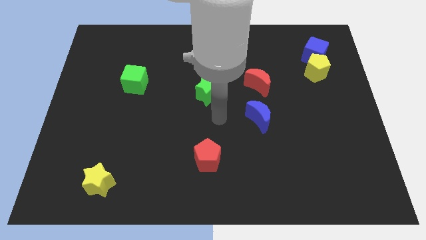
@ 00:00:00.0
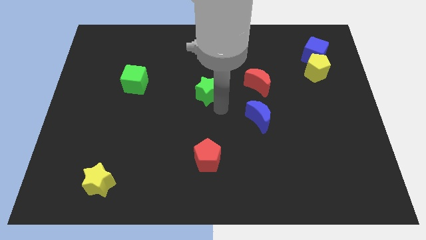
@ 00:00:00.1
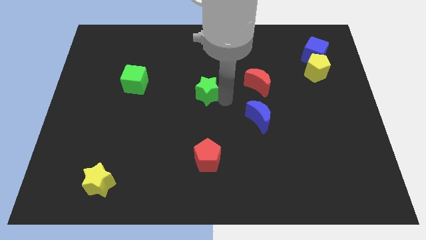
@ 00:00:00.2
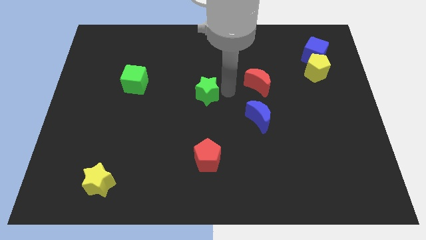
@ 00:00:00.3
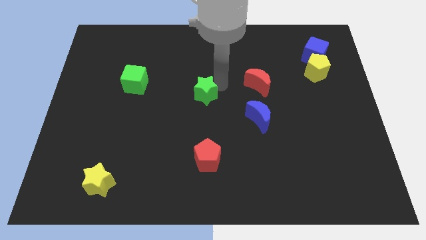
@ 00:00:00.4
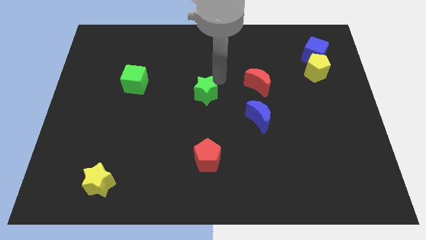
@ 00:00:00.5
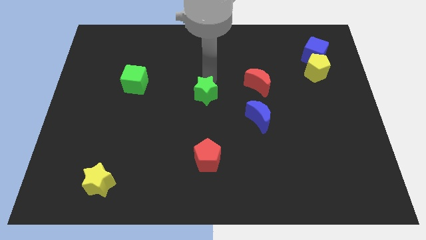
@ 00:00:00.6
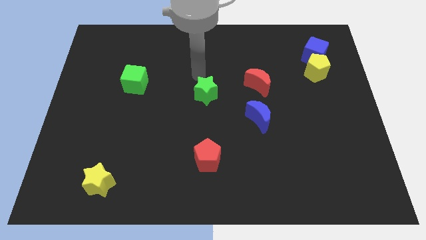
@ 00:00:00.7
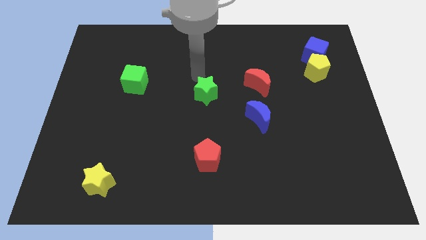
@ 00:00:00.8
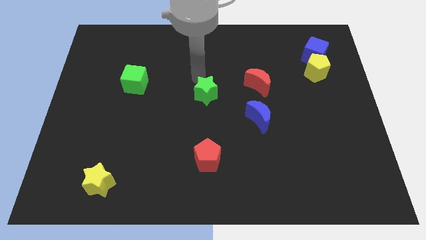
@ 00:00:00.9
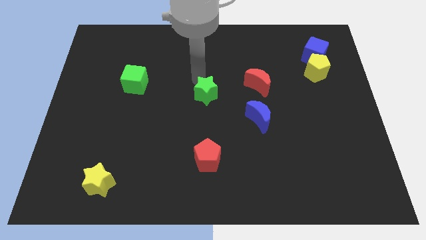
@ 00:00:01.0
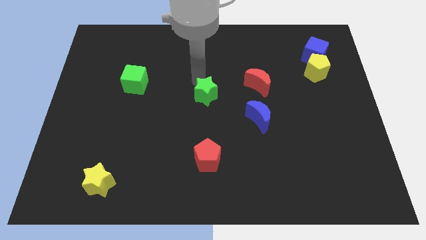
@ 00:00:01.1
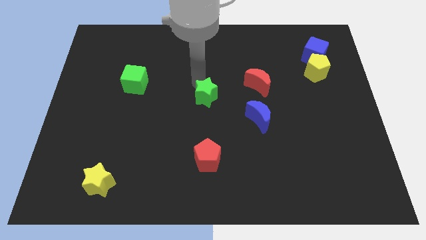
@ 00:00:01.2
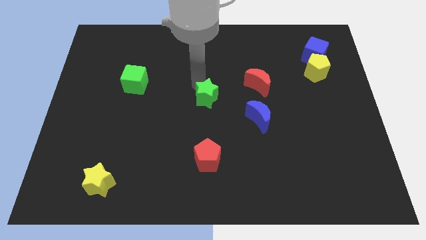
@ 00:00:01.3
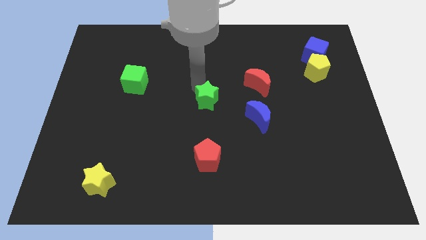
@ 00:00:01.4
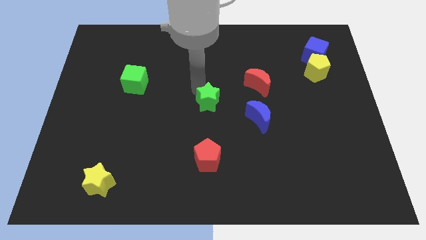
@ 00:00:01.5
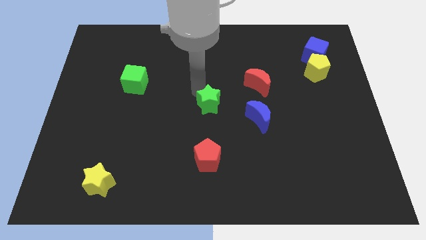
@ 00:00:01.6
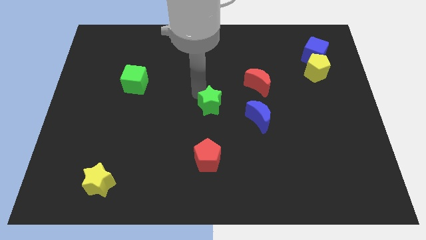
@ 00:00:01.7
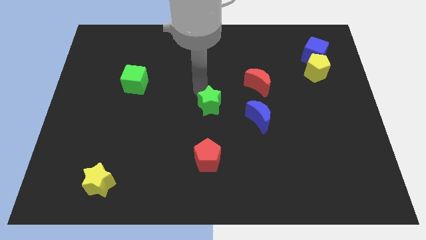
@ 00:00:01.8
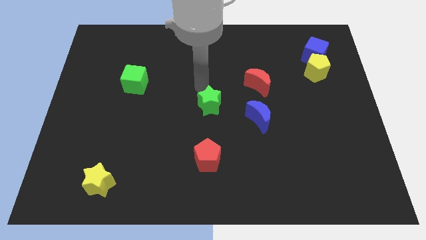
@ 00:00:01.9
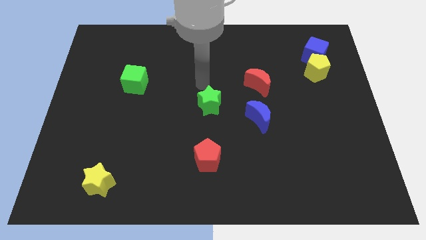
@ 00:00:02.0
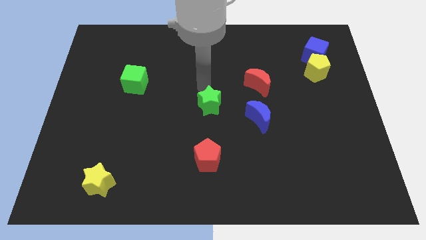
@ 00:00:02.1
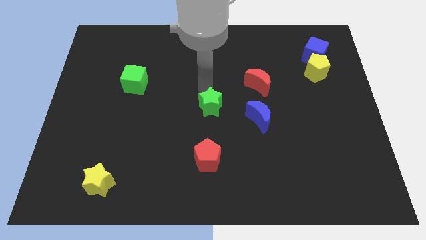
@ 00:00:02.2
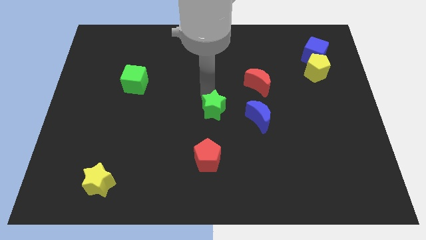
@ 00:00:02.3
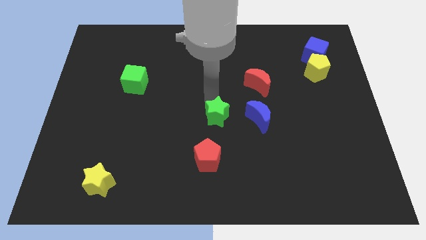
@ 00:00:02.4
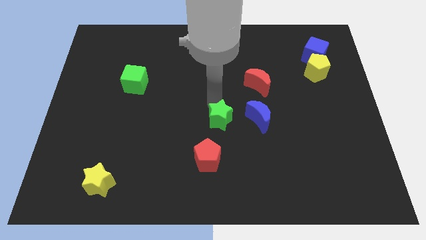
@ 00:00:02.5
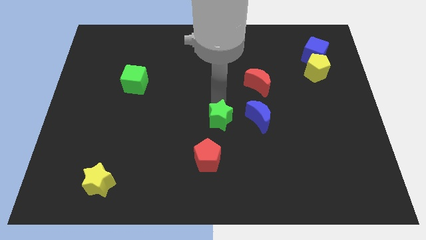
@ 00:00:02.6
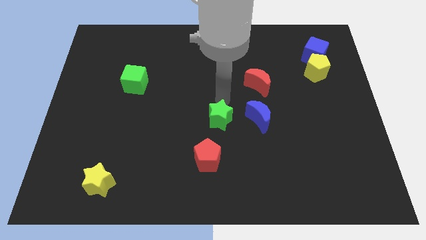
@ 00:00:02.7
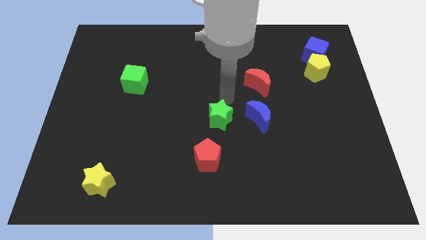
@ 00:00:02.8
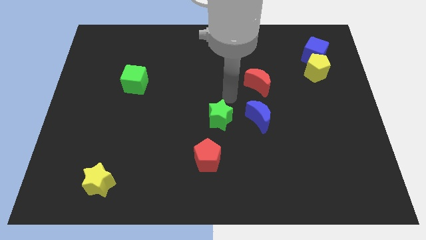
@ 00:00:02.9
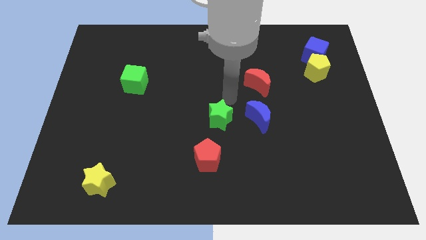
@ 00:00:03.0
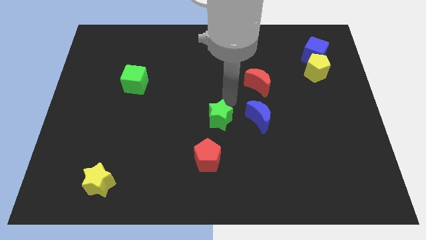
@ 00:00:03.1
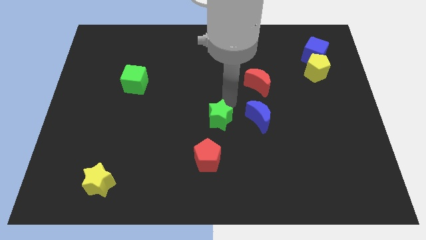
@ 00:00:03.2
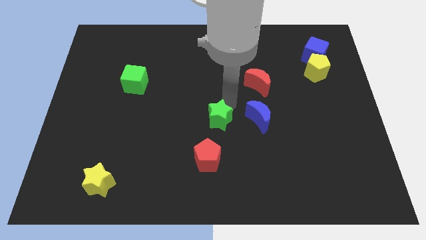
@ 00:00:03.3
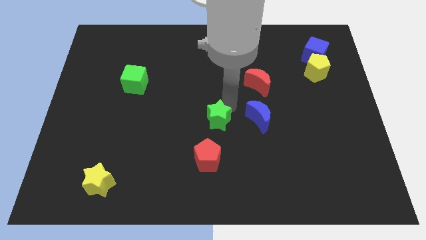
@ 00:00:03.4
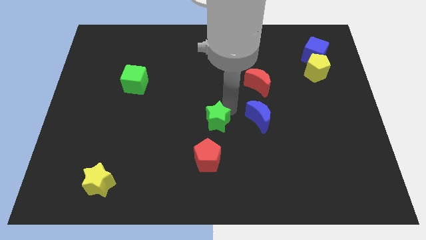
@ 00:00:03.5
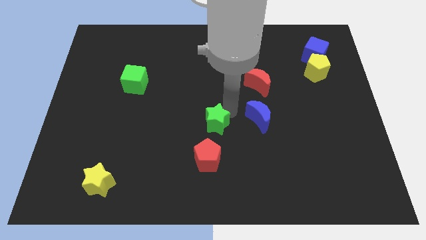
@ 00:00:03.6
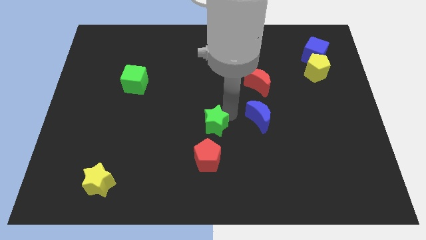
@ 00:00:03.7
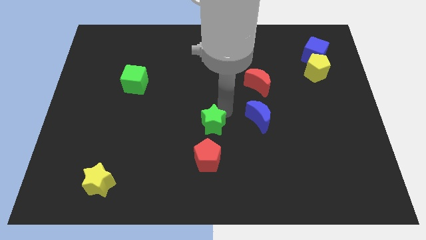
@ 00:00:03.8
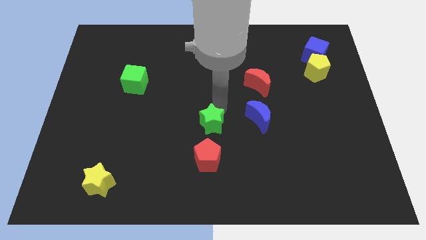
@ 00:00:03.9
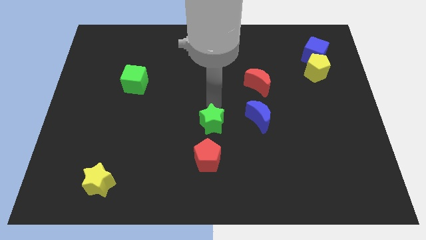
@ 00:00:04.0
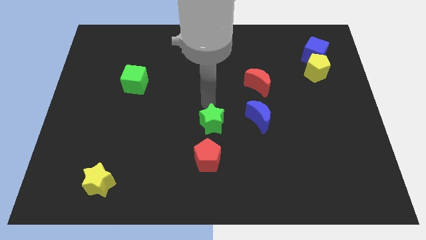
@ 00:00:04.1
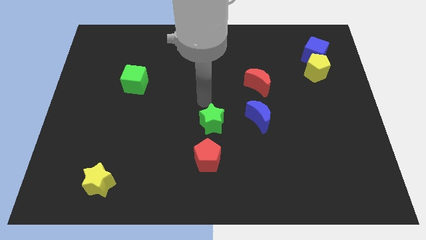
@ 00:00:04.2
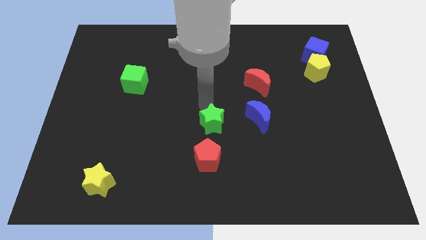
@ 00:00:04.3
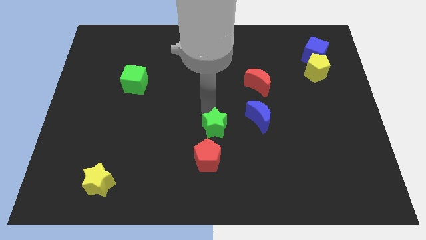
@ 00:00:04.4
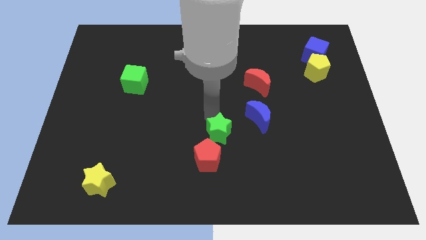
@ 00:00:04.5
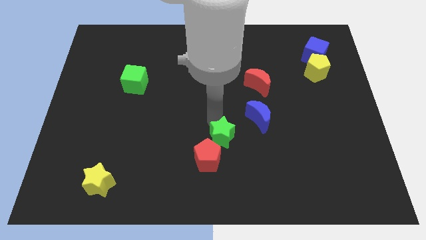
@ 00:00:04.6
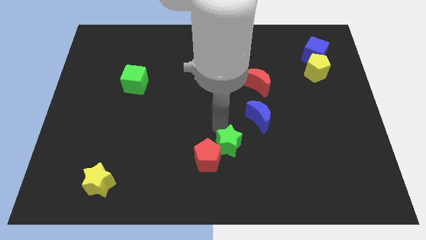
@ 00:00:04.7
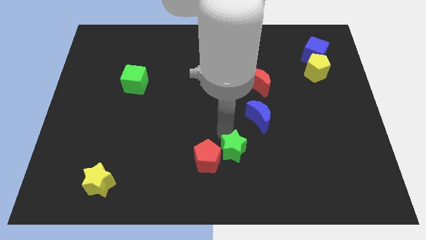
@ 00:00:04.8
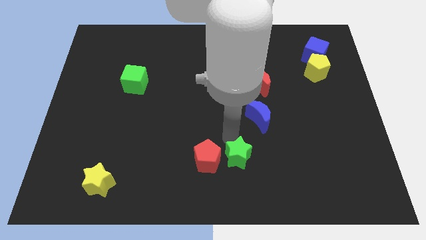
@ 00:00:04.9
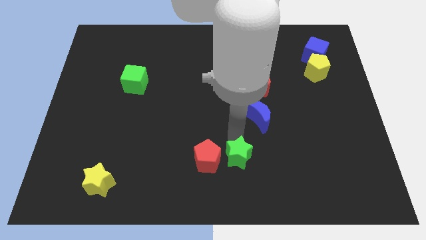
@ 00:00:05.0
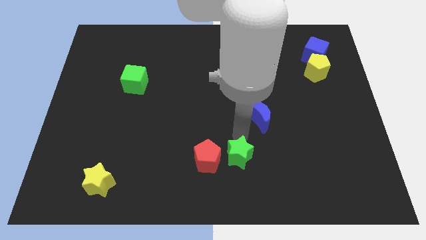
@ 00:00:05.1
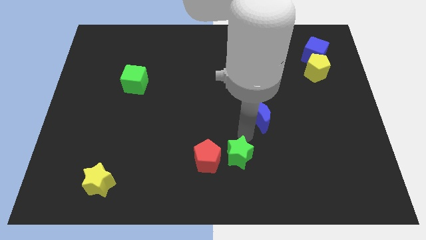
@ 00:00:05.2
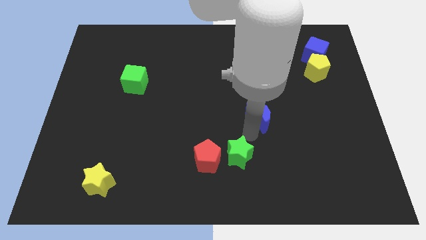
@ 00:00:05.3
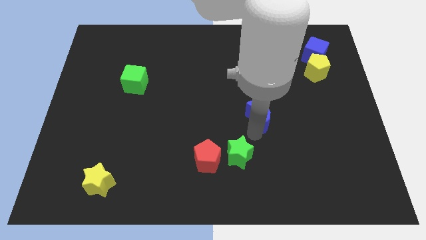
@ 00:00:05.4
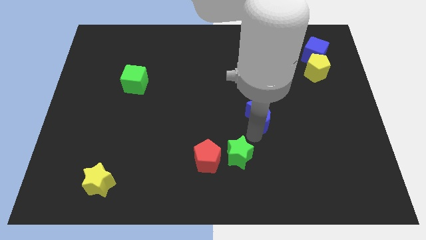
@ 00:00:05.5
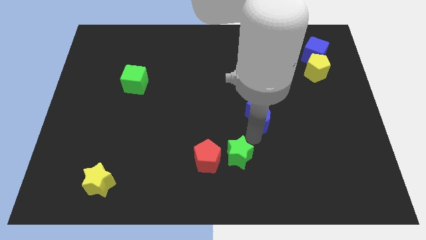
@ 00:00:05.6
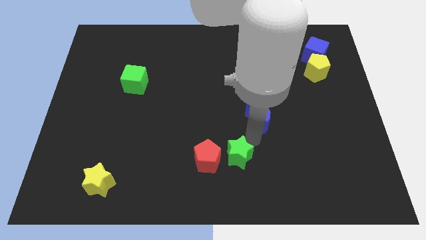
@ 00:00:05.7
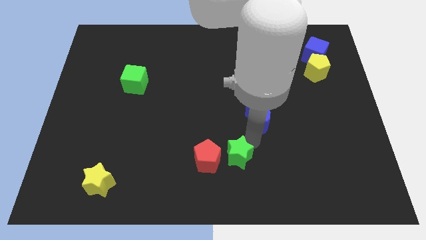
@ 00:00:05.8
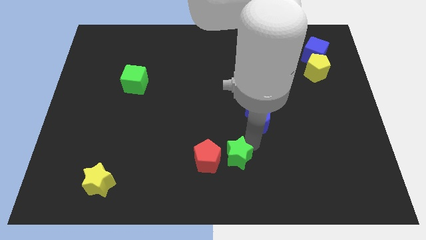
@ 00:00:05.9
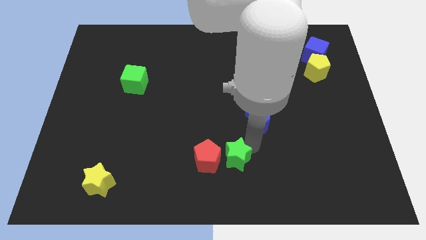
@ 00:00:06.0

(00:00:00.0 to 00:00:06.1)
slide the green star to the bottom side

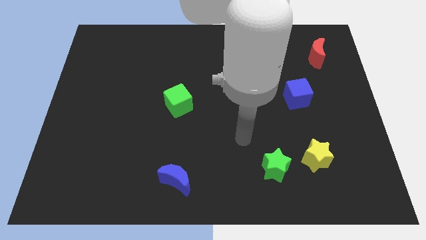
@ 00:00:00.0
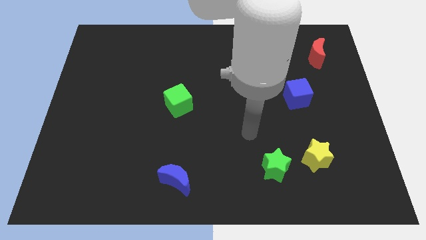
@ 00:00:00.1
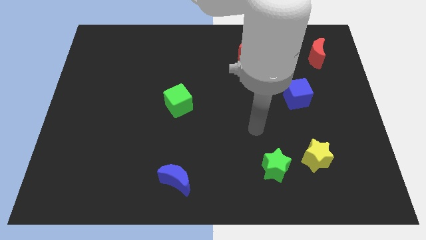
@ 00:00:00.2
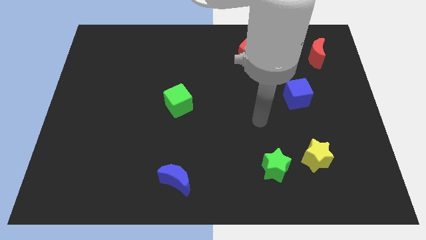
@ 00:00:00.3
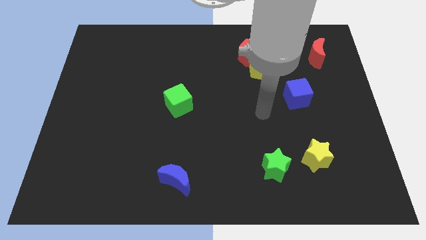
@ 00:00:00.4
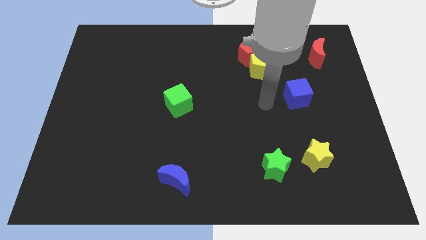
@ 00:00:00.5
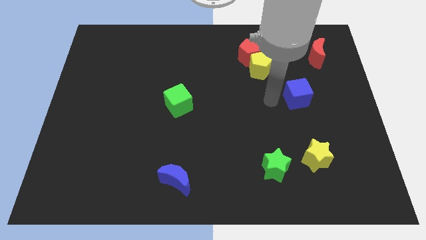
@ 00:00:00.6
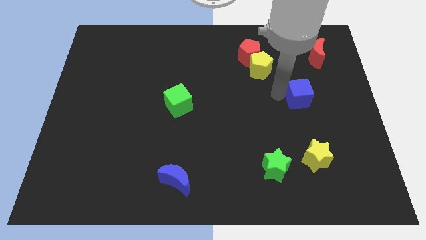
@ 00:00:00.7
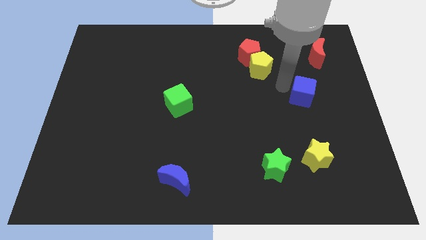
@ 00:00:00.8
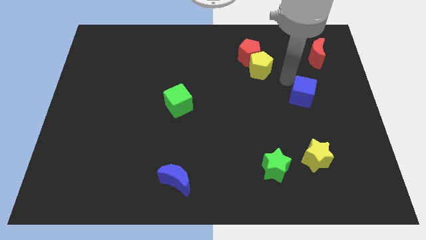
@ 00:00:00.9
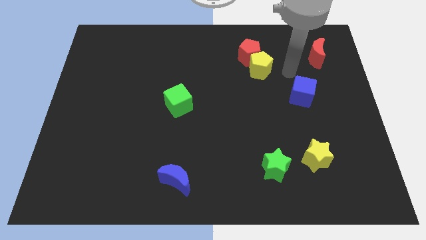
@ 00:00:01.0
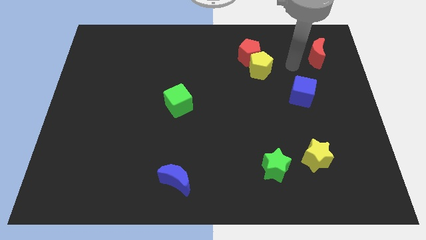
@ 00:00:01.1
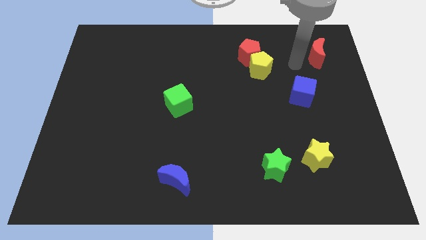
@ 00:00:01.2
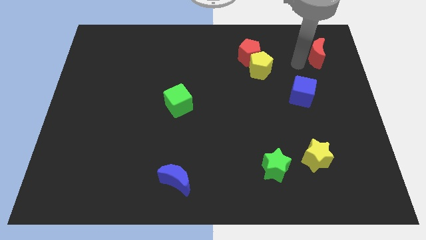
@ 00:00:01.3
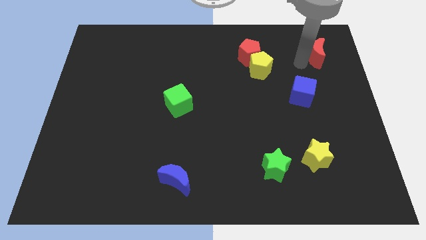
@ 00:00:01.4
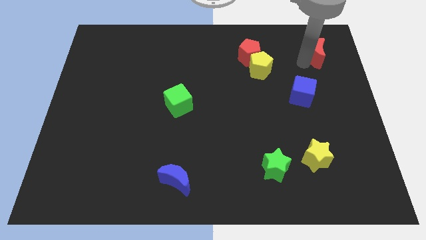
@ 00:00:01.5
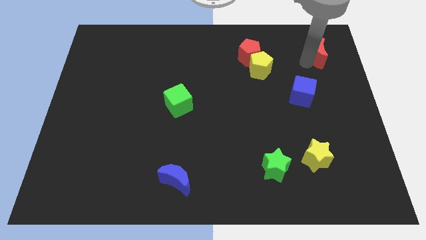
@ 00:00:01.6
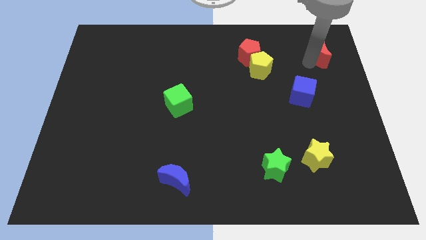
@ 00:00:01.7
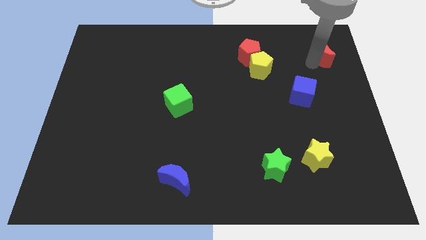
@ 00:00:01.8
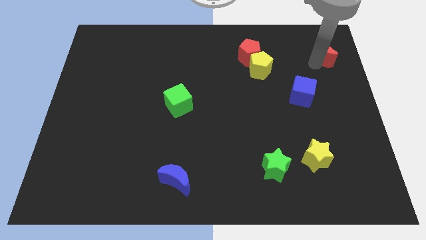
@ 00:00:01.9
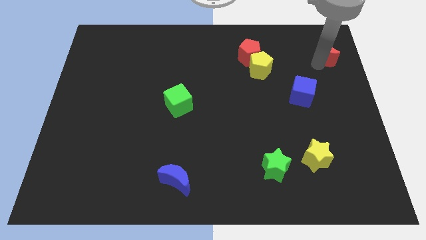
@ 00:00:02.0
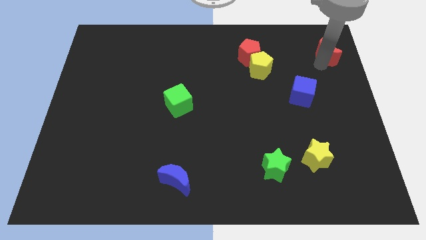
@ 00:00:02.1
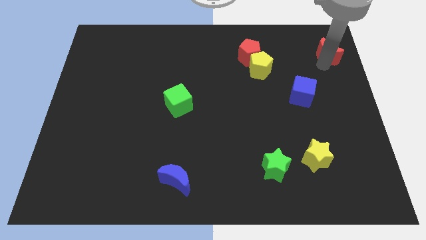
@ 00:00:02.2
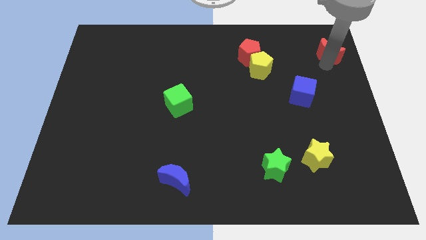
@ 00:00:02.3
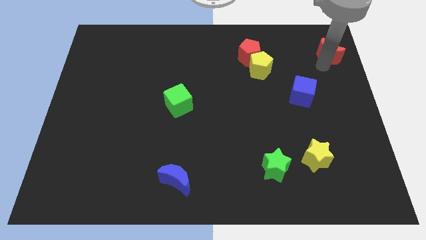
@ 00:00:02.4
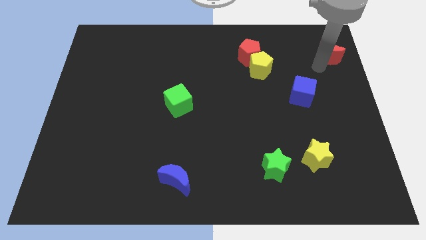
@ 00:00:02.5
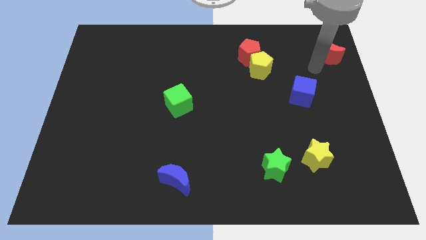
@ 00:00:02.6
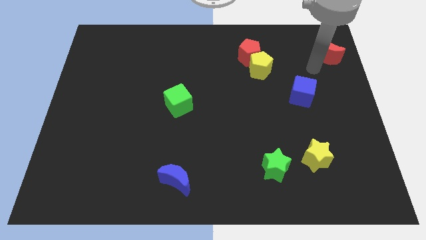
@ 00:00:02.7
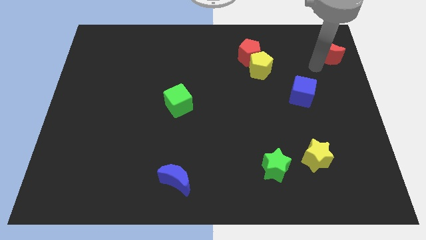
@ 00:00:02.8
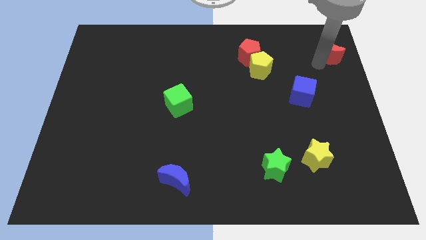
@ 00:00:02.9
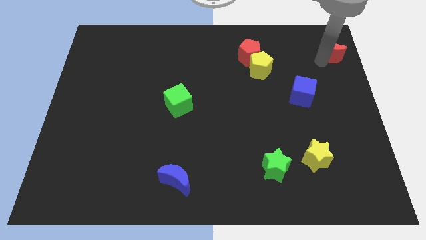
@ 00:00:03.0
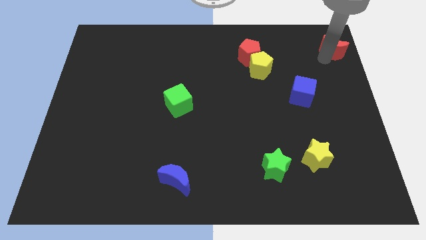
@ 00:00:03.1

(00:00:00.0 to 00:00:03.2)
put the red moon to the top right of the board
